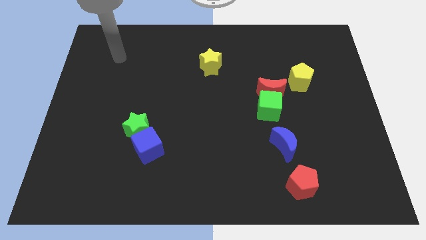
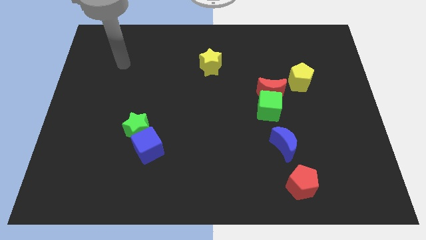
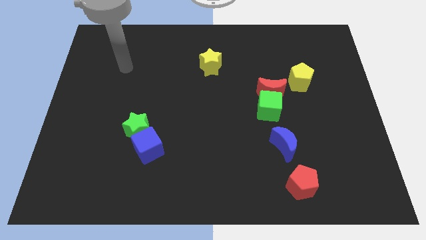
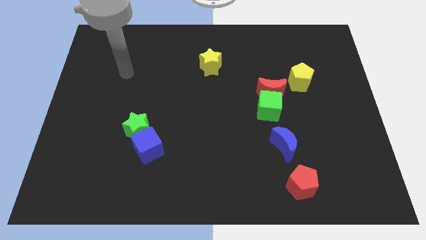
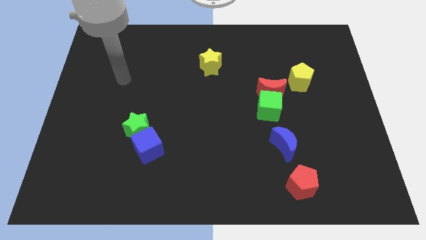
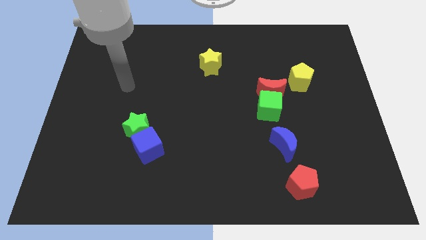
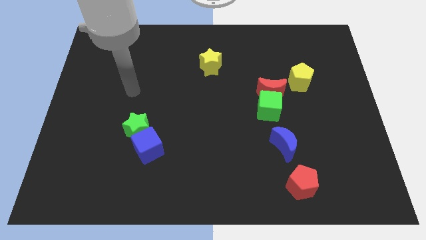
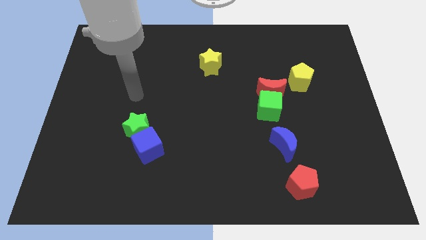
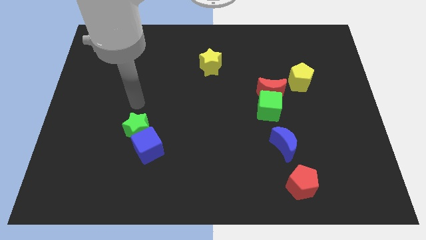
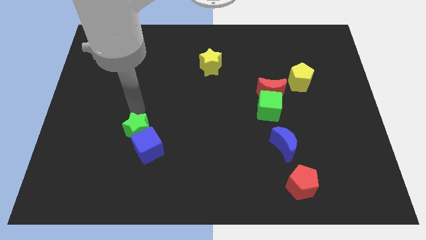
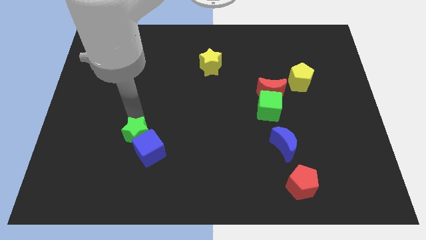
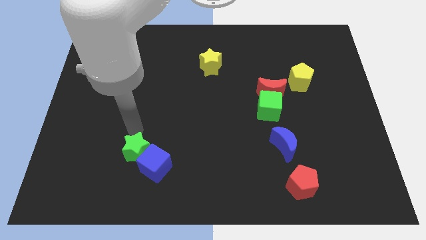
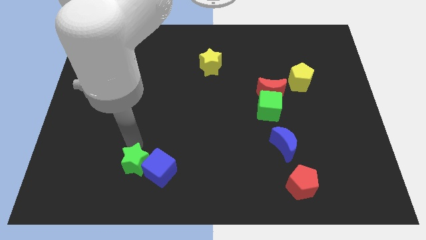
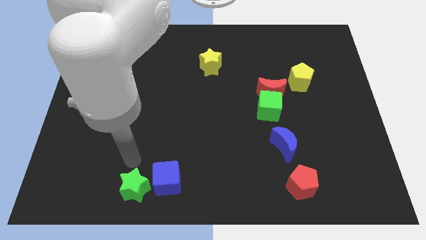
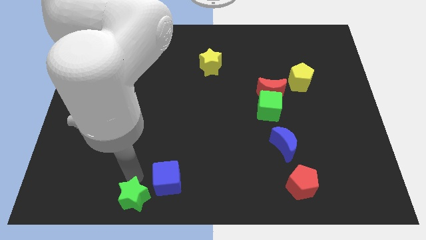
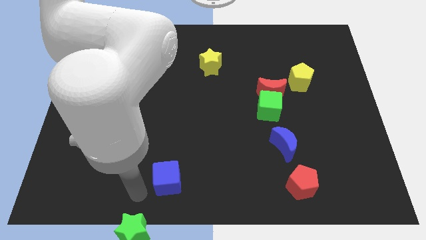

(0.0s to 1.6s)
move the blue cube away from the green star

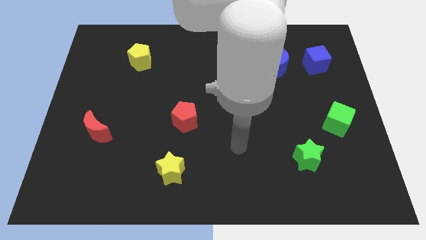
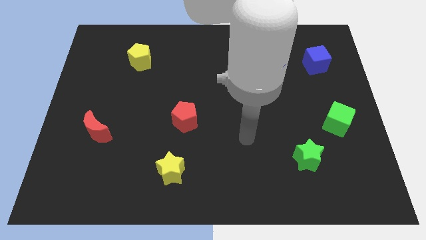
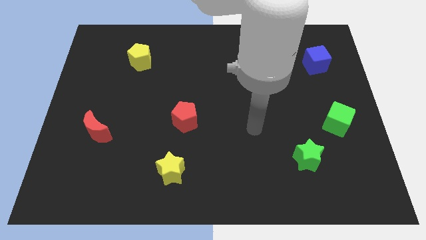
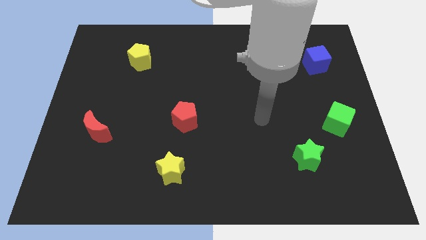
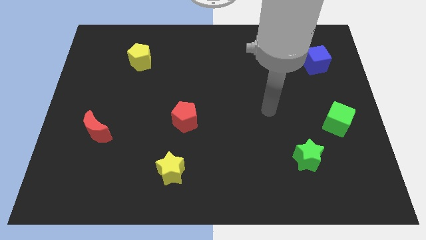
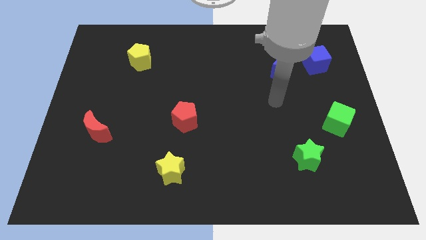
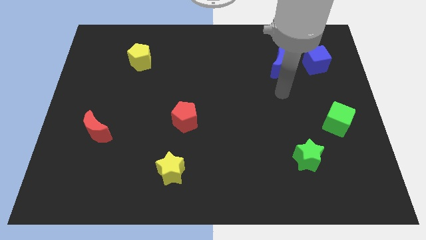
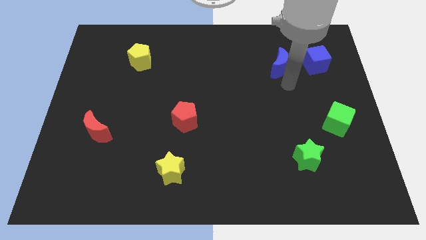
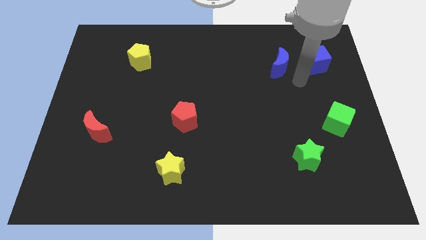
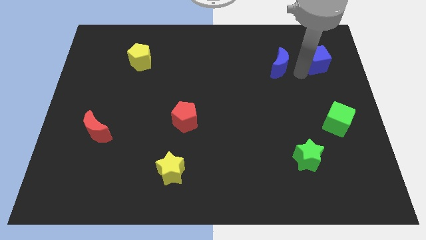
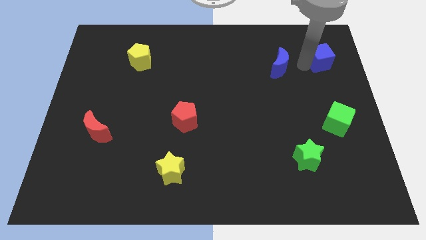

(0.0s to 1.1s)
separate the blue moon from the blue cube

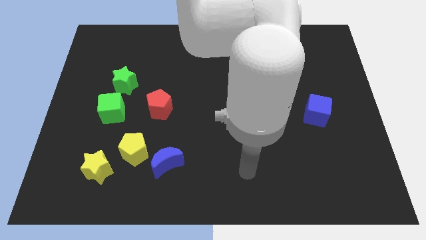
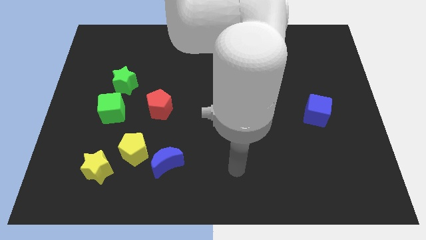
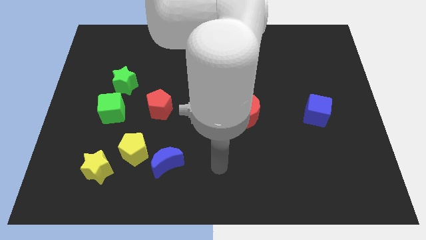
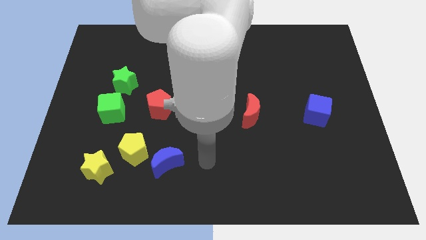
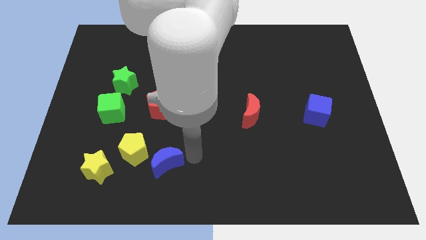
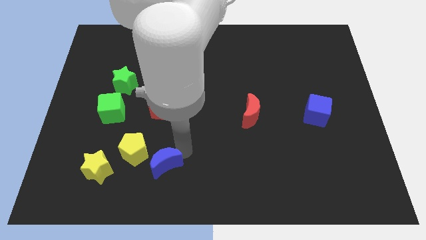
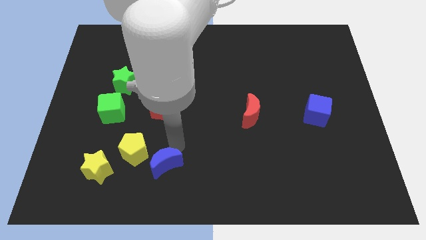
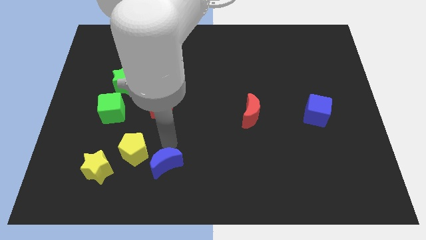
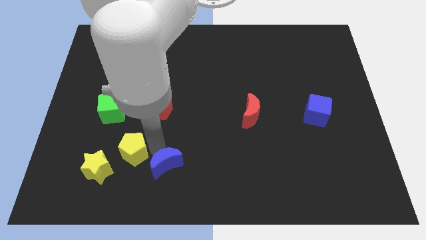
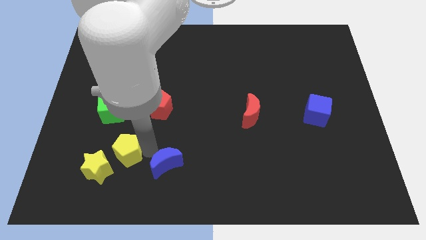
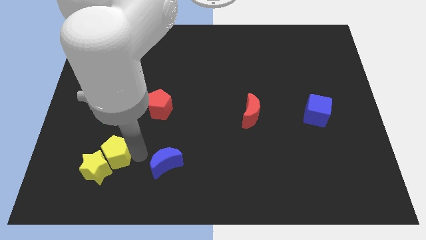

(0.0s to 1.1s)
move the blue moon away from the yellow pentagon

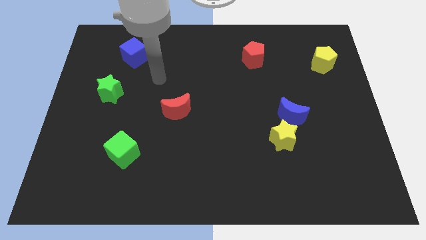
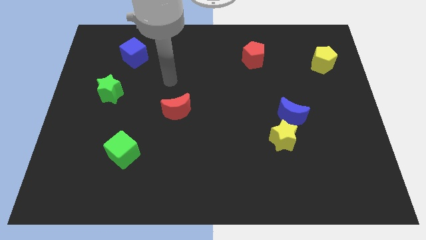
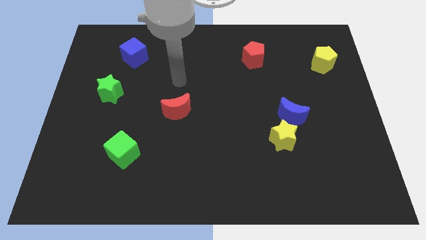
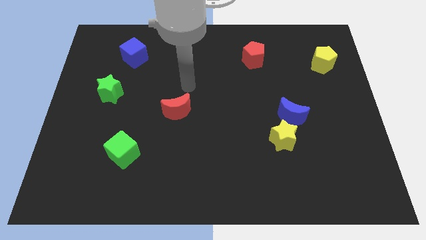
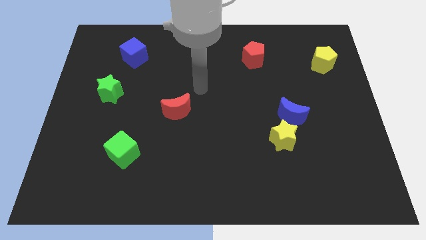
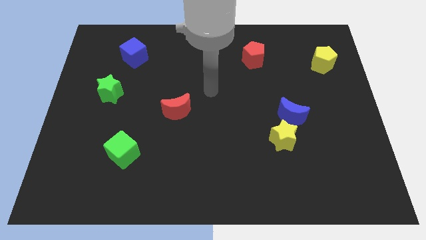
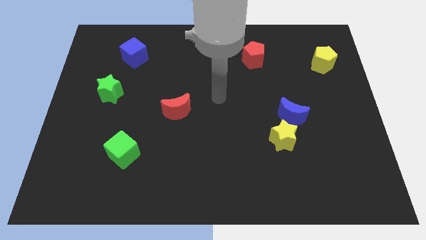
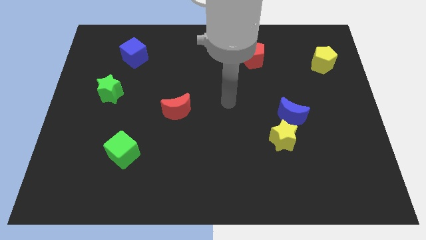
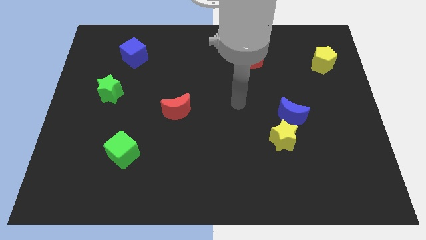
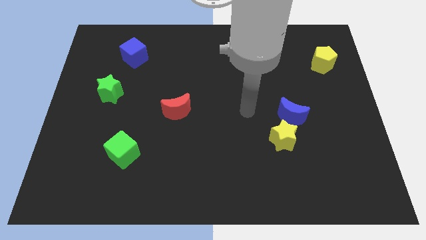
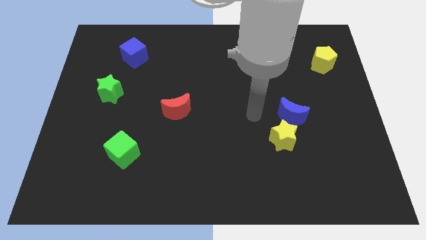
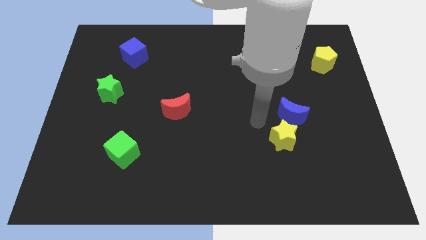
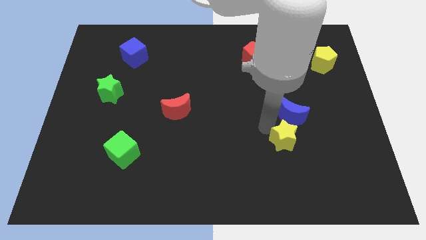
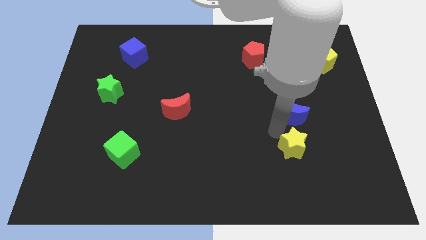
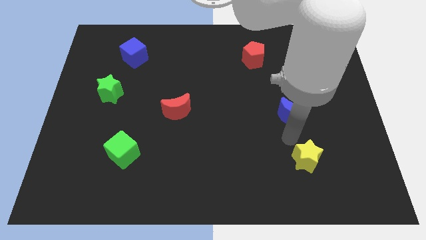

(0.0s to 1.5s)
separate the blue moon from the yellow star

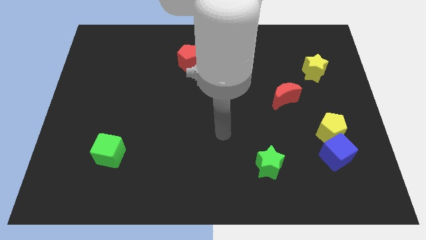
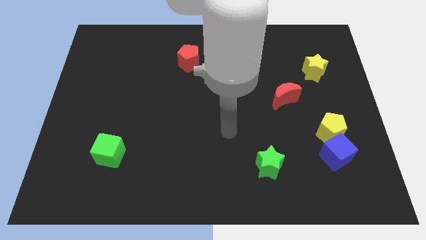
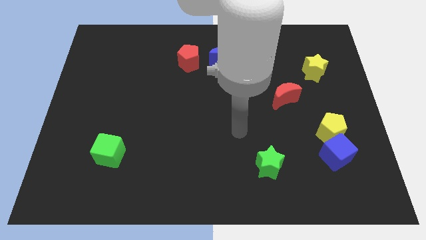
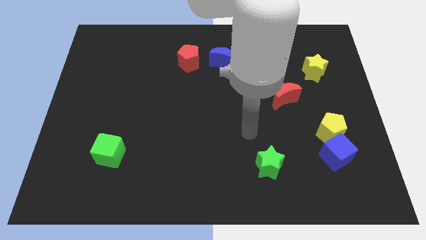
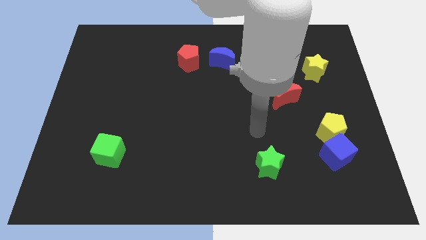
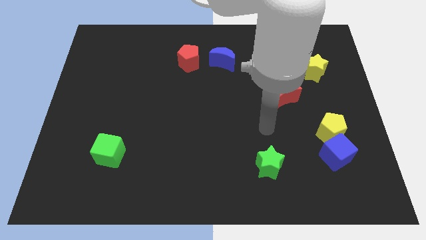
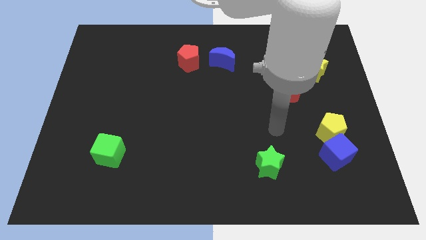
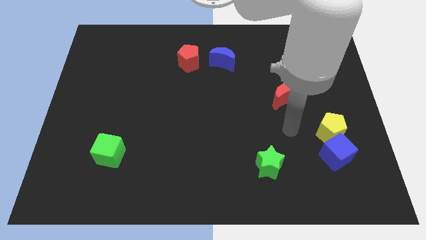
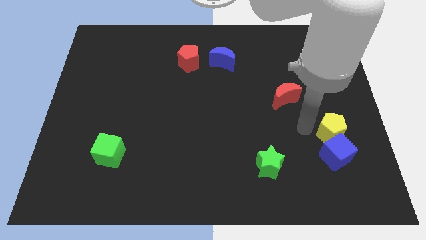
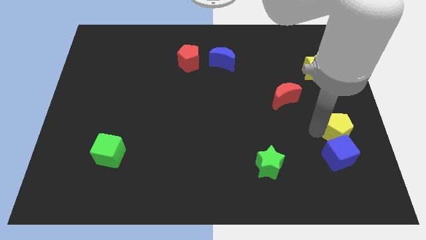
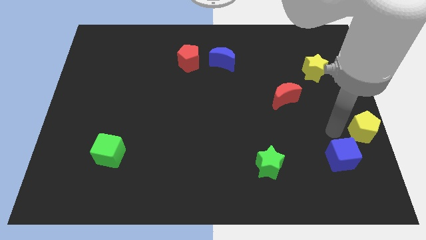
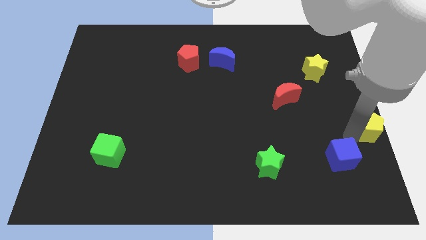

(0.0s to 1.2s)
move the blue cube away from the yellow pentagon

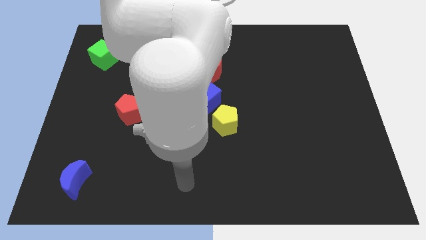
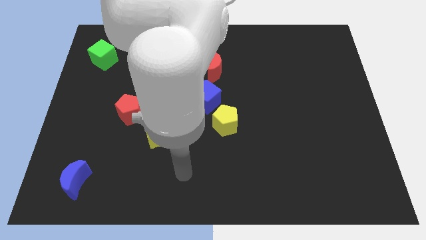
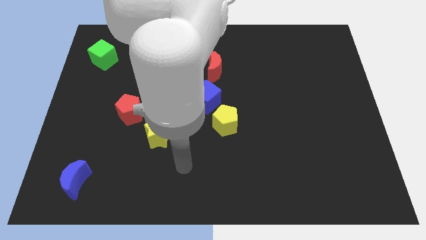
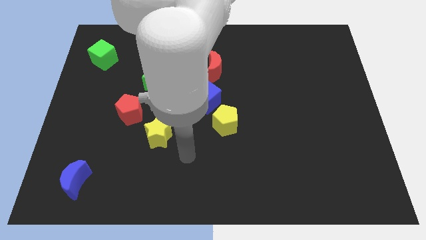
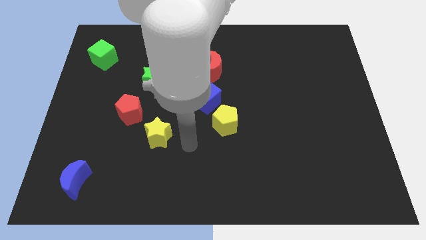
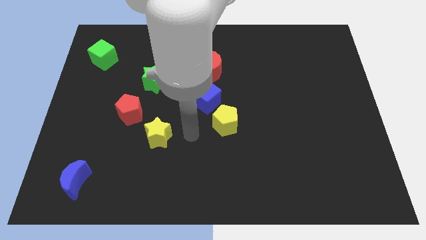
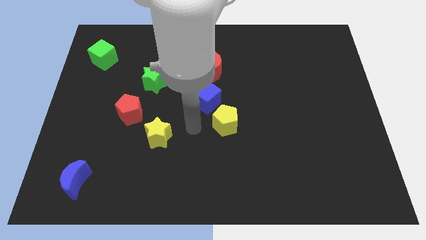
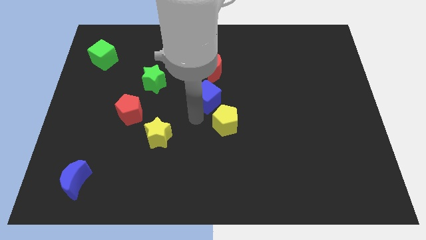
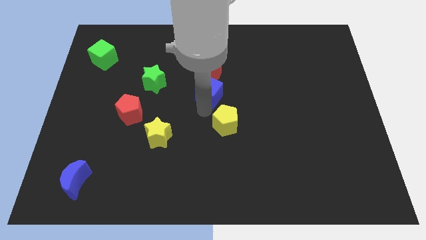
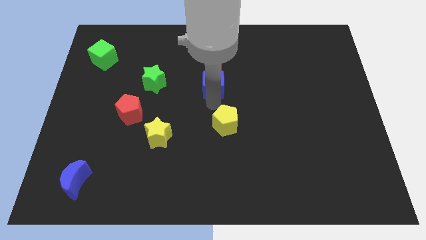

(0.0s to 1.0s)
move the yellow pentagon away from the blue cube

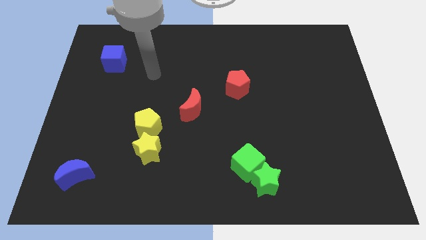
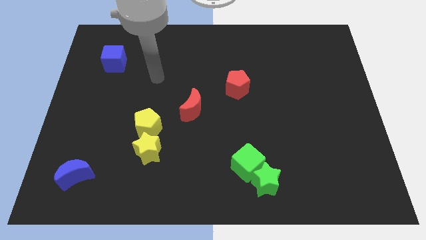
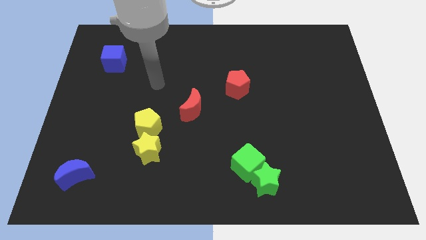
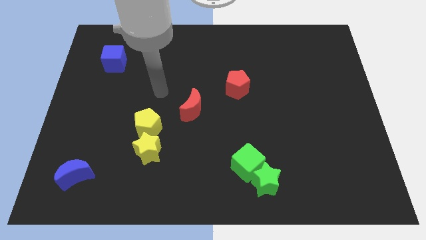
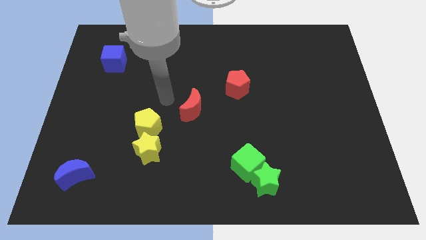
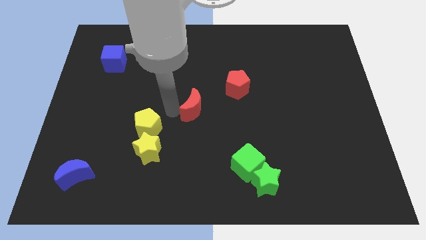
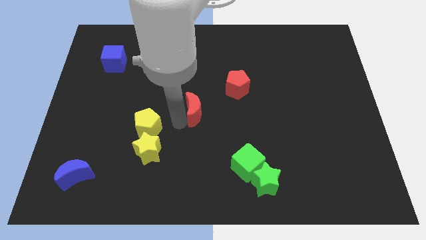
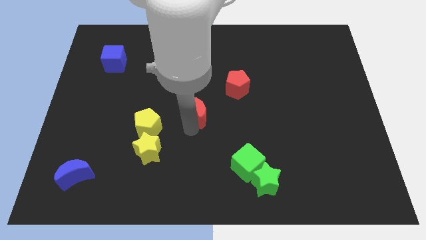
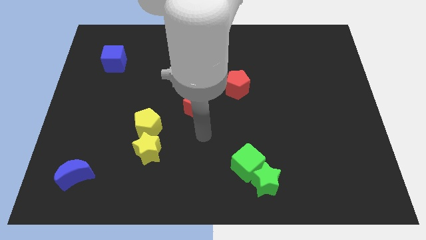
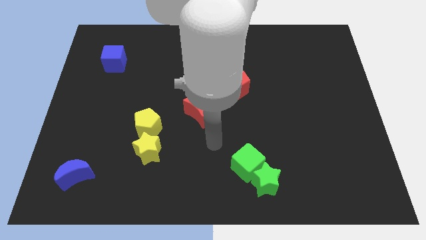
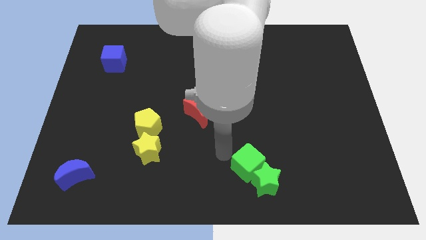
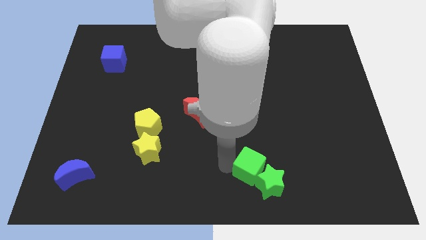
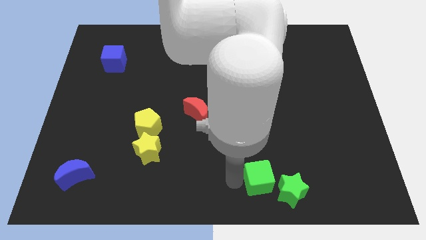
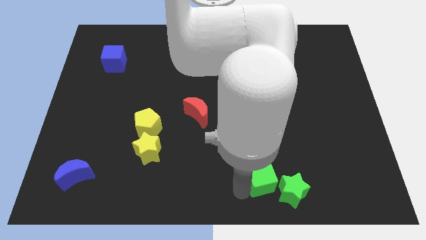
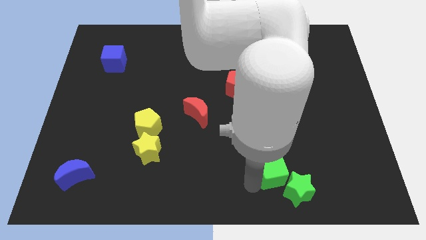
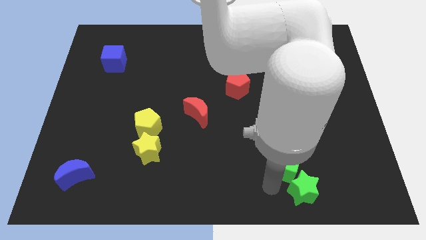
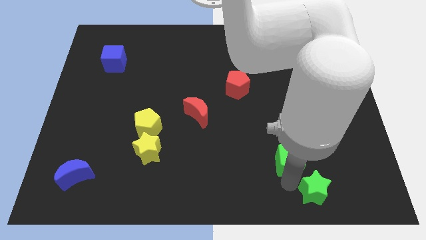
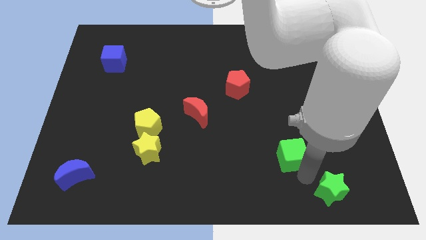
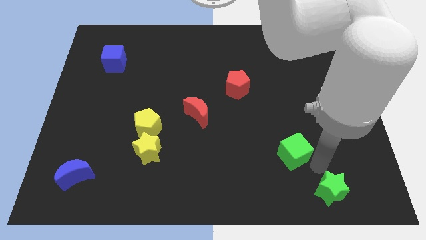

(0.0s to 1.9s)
move the green cube away from the green star
